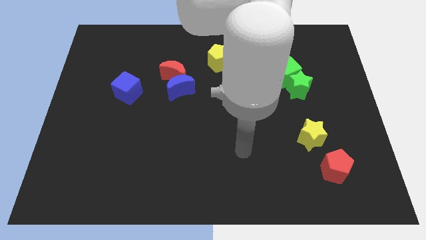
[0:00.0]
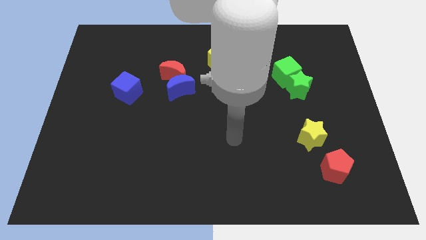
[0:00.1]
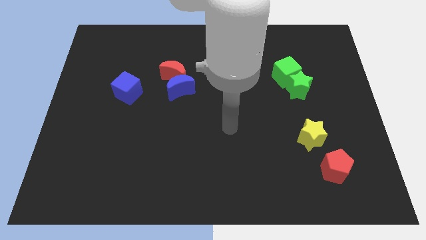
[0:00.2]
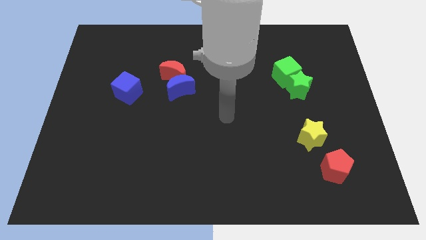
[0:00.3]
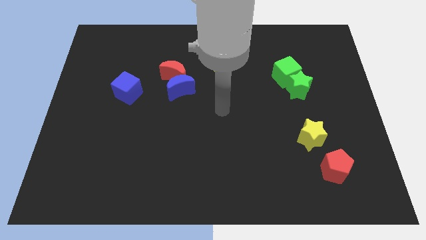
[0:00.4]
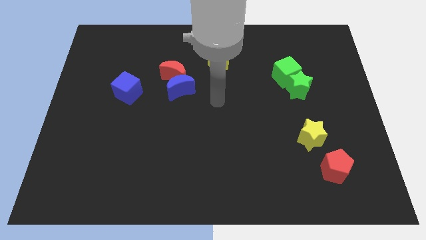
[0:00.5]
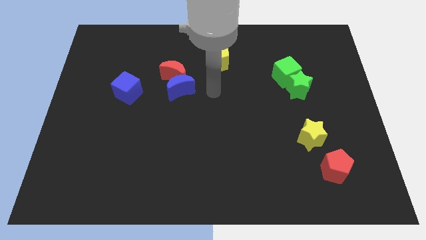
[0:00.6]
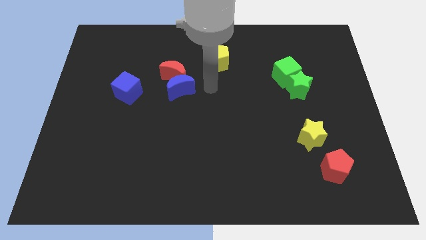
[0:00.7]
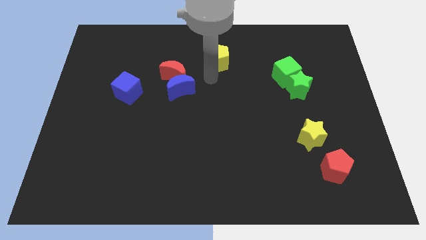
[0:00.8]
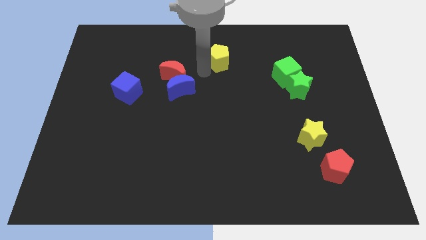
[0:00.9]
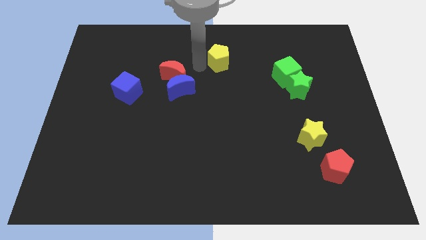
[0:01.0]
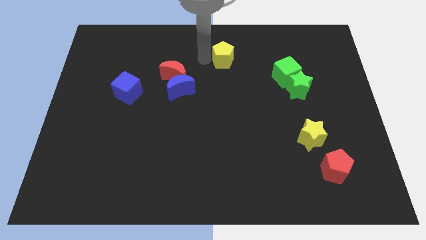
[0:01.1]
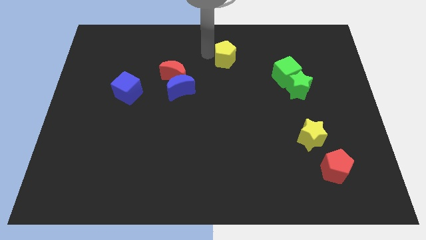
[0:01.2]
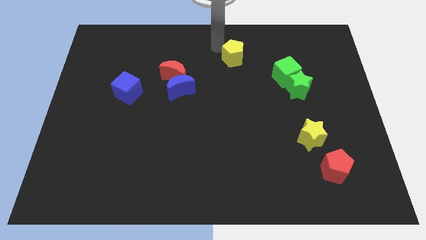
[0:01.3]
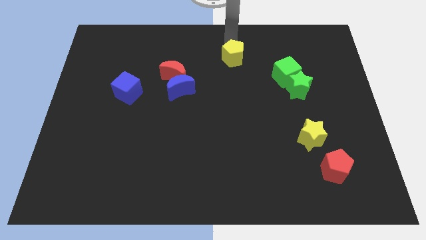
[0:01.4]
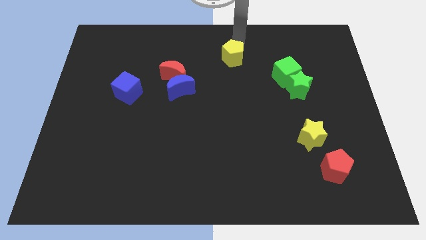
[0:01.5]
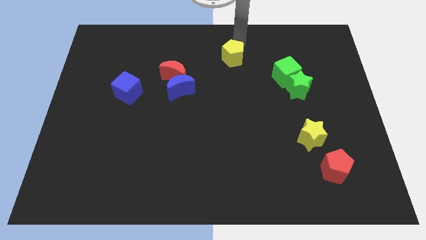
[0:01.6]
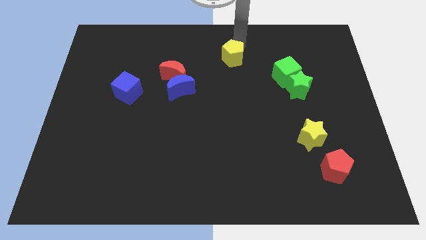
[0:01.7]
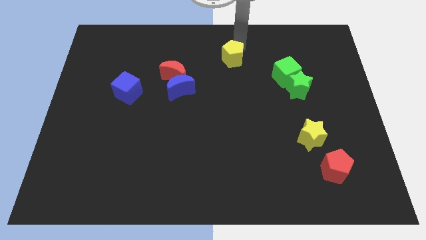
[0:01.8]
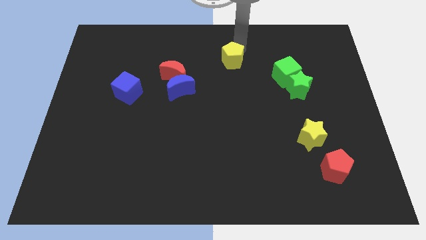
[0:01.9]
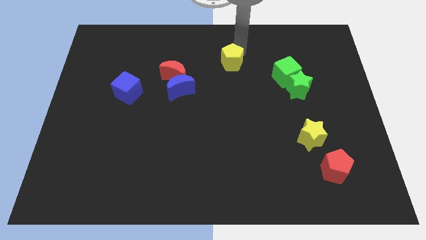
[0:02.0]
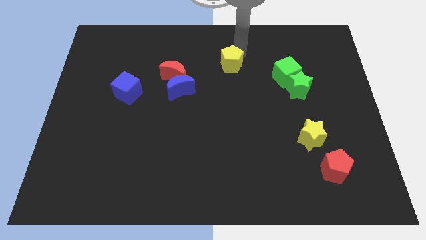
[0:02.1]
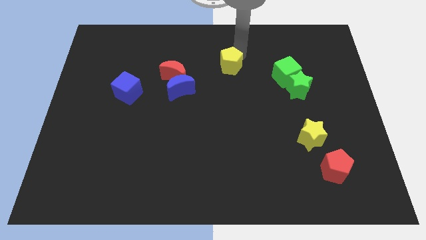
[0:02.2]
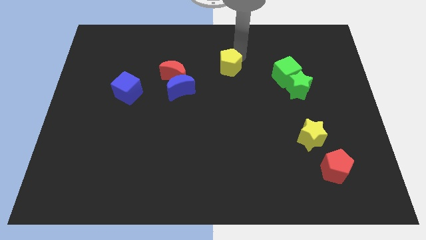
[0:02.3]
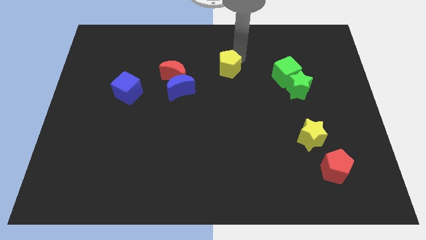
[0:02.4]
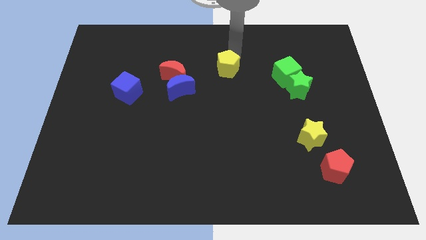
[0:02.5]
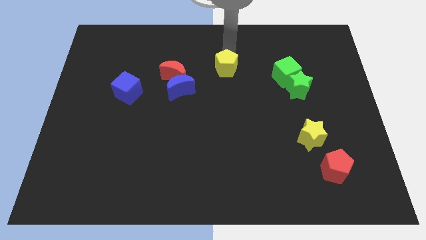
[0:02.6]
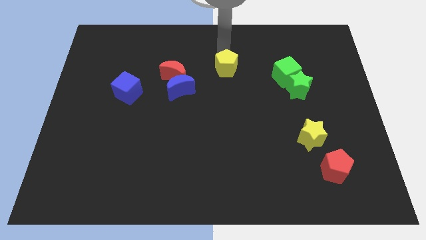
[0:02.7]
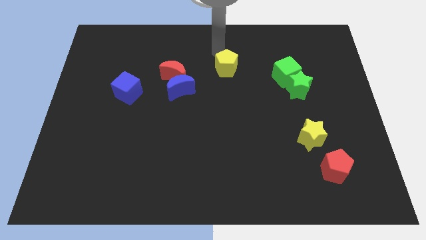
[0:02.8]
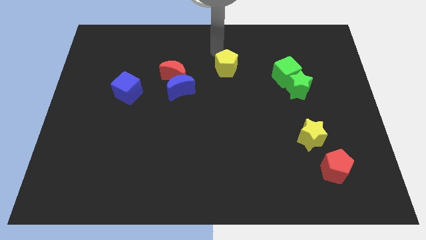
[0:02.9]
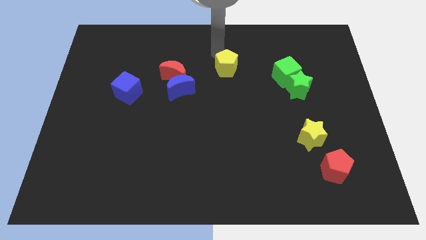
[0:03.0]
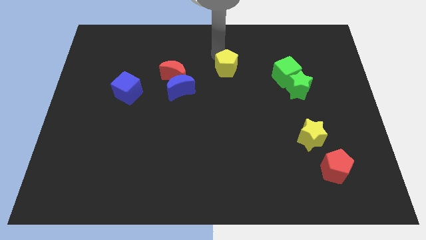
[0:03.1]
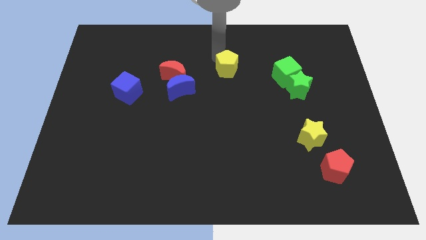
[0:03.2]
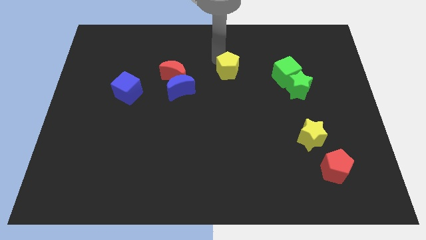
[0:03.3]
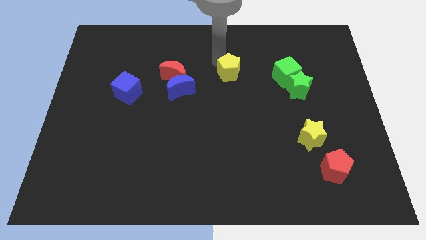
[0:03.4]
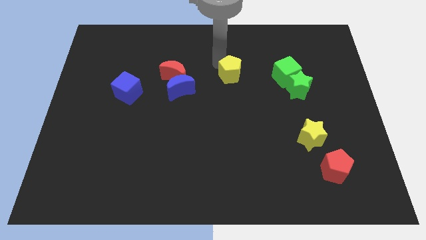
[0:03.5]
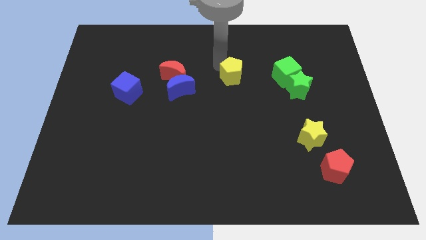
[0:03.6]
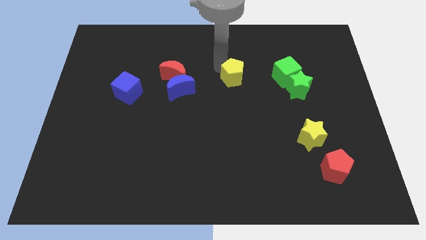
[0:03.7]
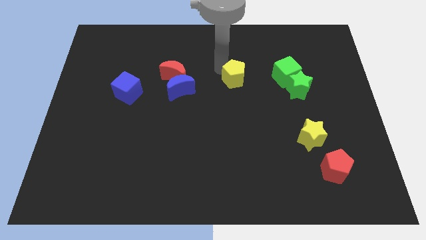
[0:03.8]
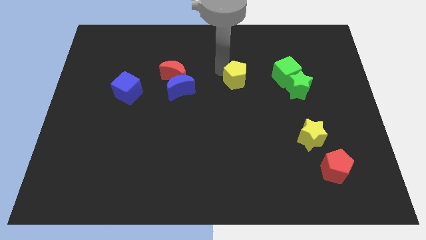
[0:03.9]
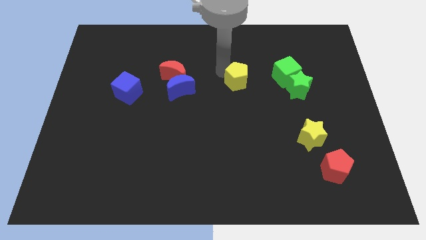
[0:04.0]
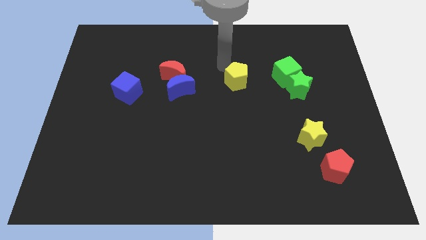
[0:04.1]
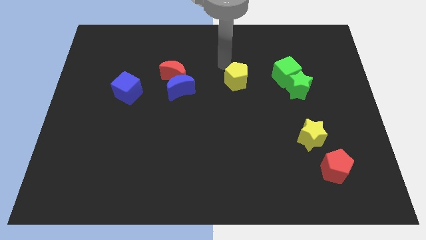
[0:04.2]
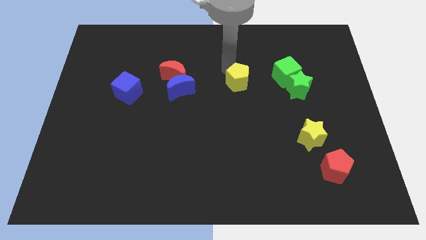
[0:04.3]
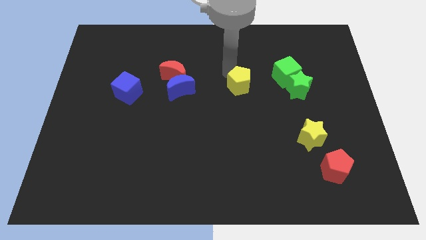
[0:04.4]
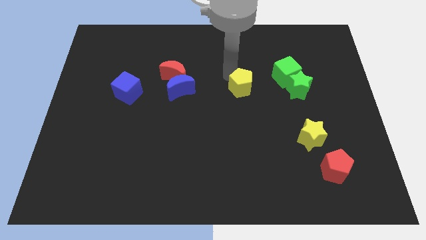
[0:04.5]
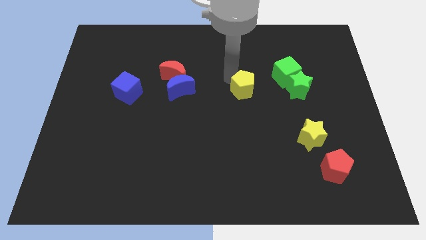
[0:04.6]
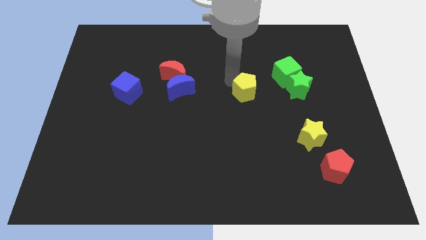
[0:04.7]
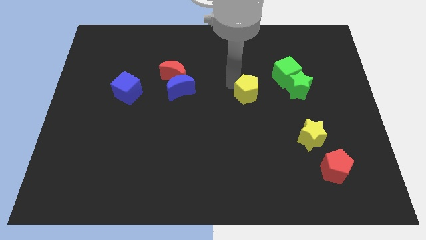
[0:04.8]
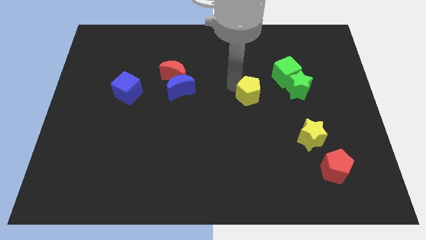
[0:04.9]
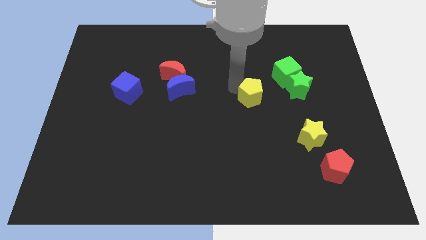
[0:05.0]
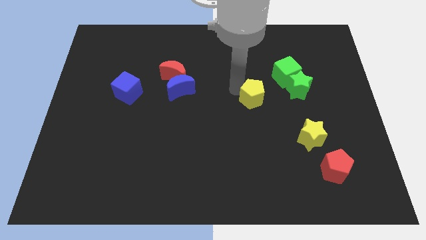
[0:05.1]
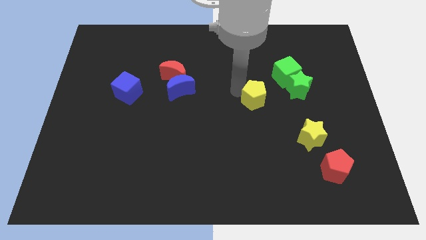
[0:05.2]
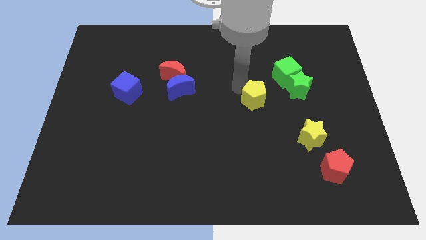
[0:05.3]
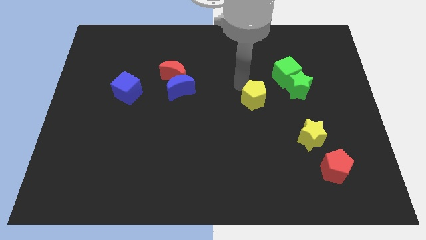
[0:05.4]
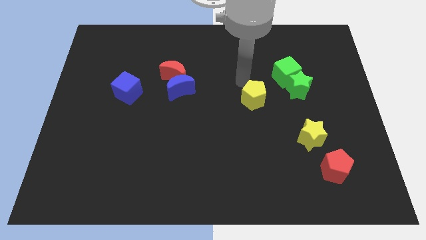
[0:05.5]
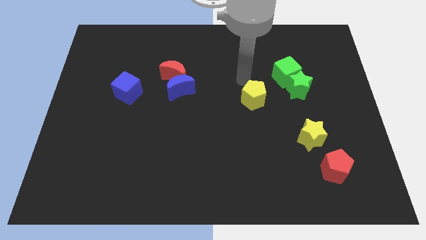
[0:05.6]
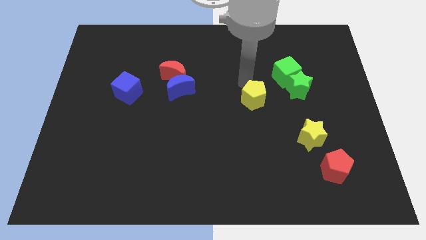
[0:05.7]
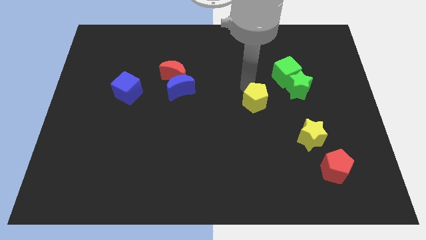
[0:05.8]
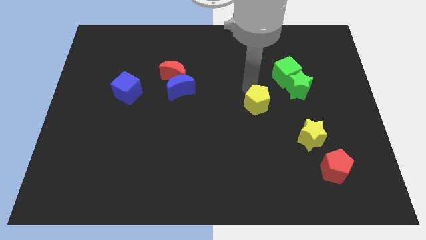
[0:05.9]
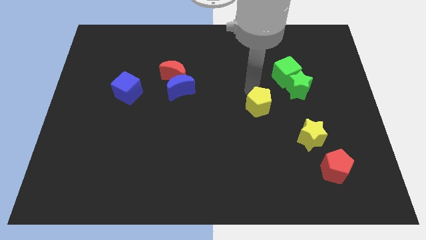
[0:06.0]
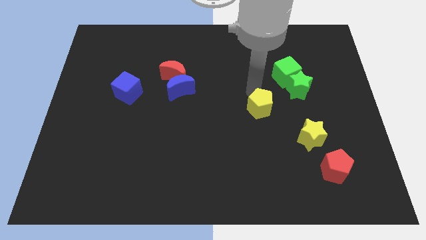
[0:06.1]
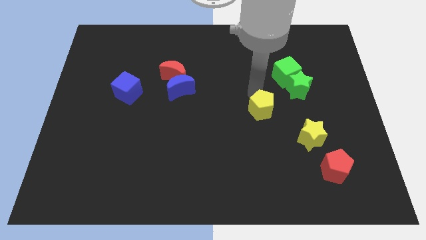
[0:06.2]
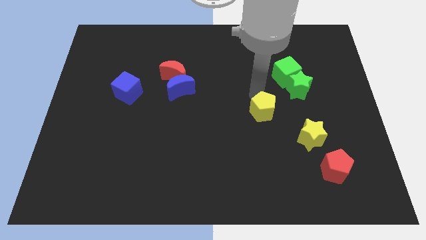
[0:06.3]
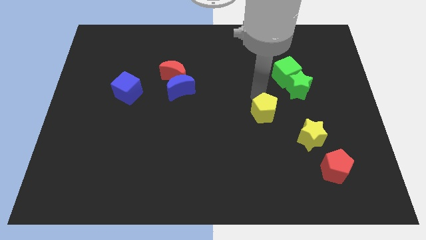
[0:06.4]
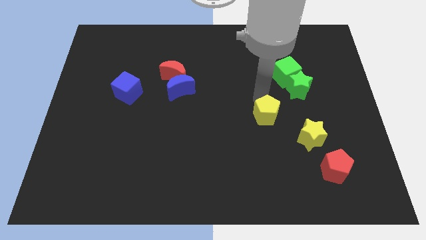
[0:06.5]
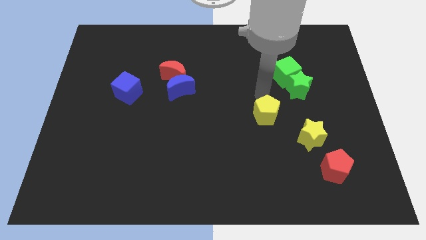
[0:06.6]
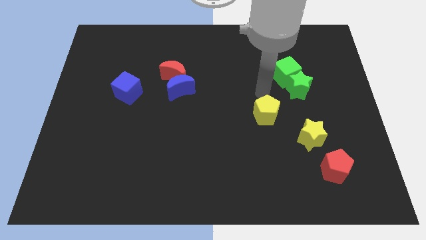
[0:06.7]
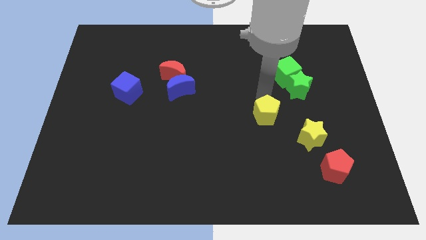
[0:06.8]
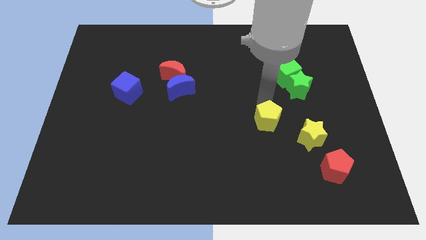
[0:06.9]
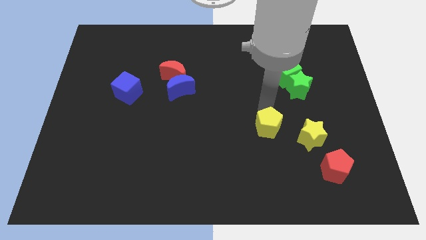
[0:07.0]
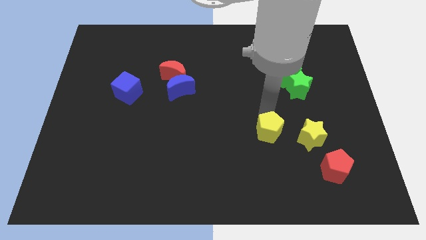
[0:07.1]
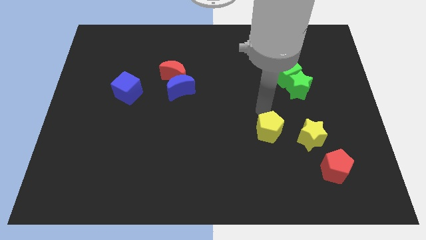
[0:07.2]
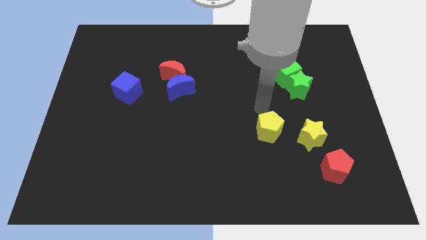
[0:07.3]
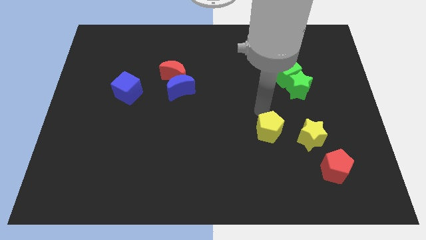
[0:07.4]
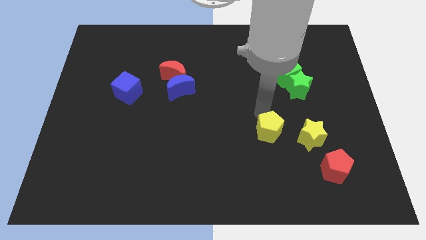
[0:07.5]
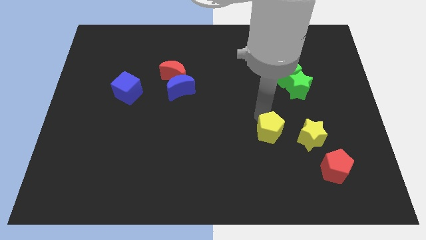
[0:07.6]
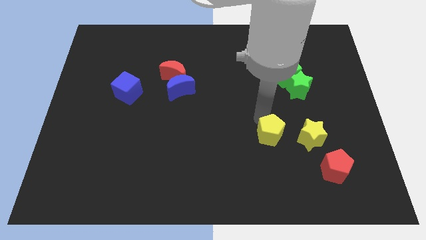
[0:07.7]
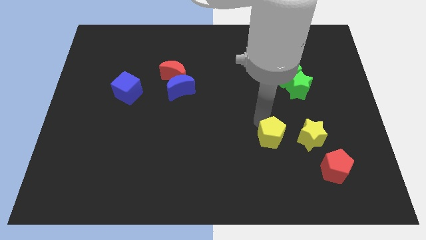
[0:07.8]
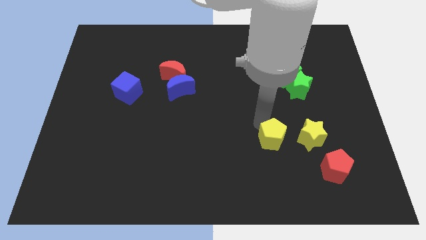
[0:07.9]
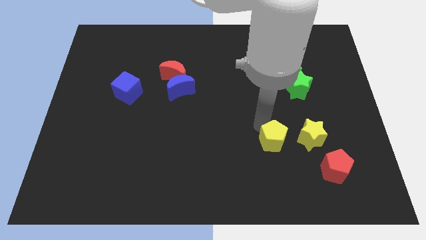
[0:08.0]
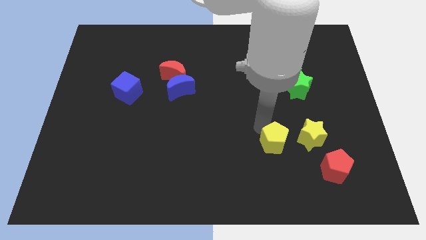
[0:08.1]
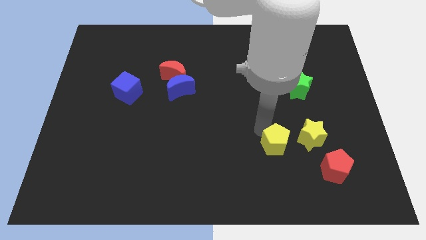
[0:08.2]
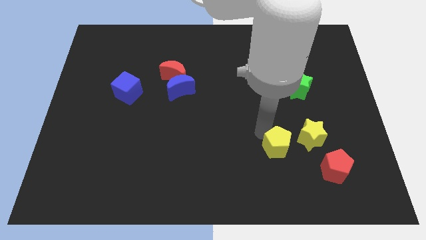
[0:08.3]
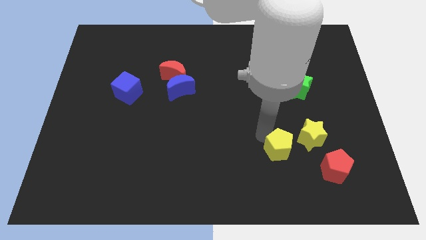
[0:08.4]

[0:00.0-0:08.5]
put the yellow pentagon left of the red pentagon
